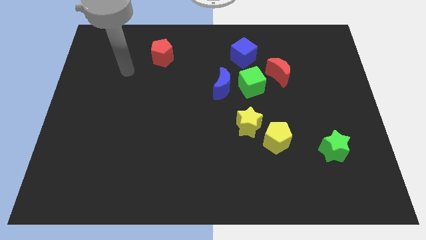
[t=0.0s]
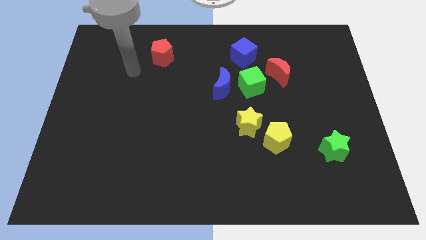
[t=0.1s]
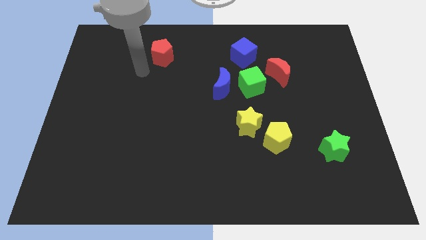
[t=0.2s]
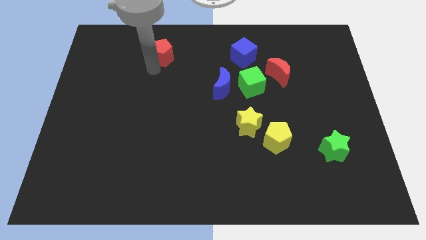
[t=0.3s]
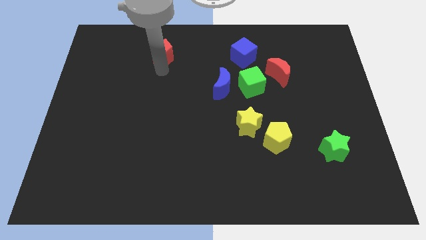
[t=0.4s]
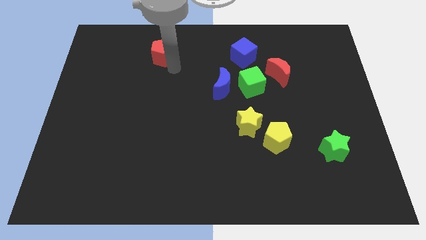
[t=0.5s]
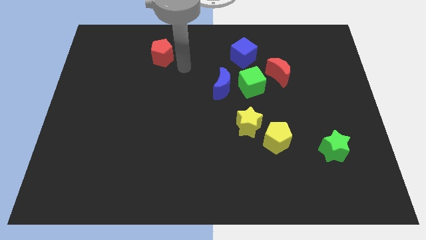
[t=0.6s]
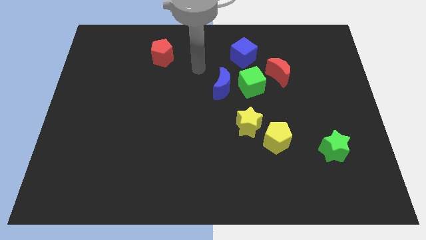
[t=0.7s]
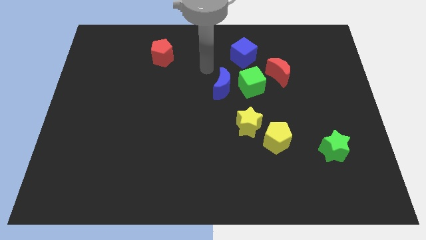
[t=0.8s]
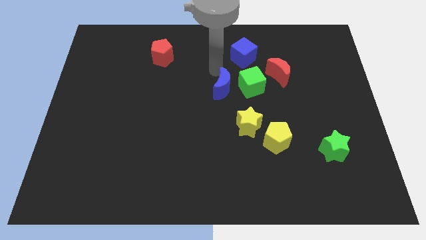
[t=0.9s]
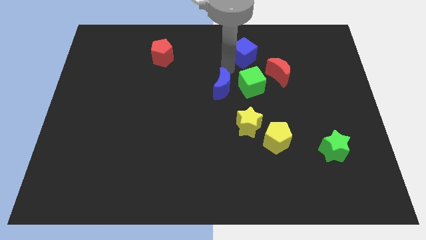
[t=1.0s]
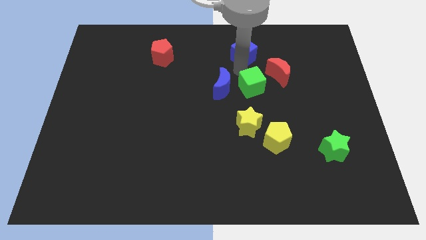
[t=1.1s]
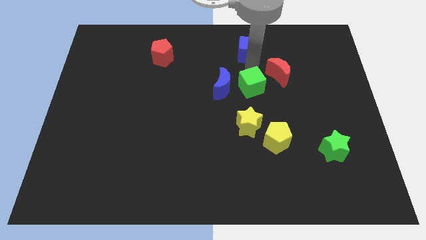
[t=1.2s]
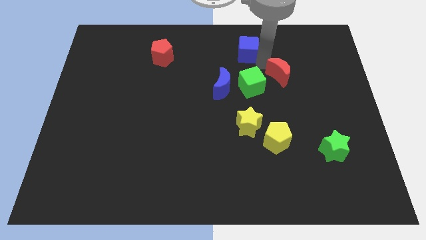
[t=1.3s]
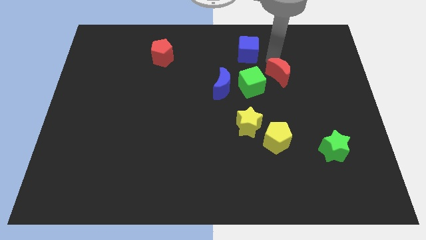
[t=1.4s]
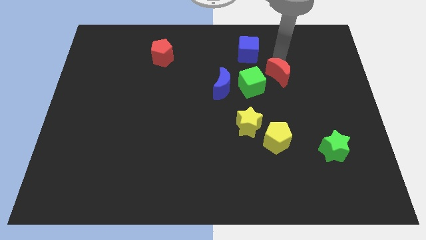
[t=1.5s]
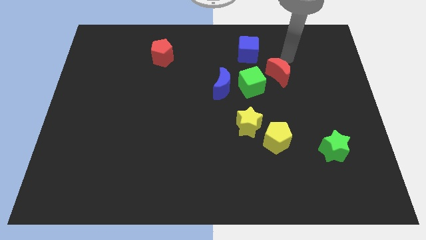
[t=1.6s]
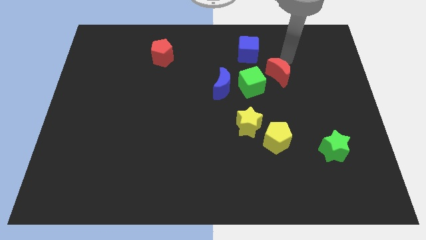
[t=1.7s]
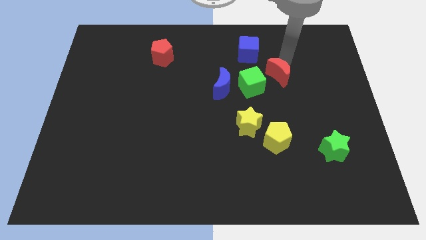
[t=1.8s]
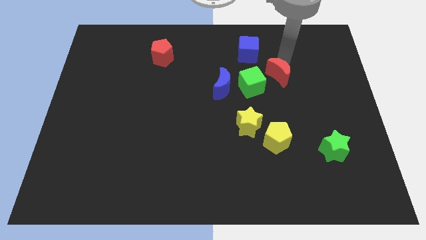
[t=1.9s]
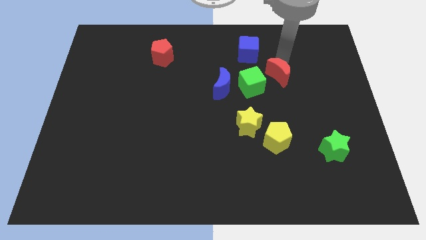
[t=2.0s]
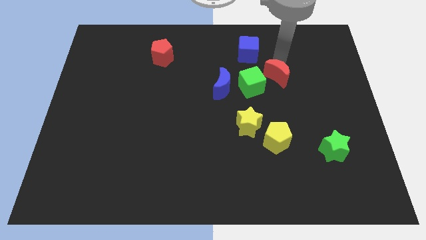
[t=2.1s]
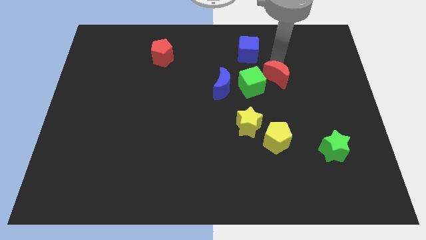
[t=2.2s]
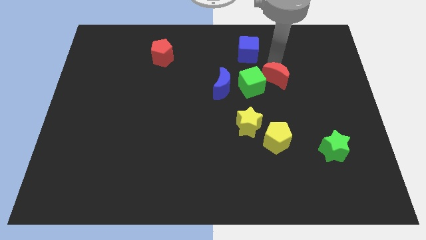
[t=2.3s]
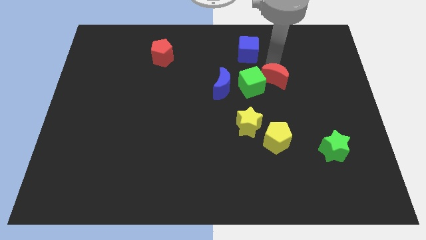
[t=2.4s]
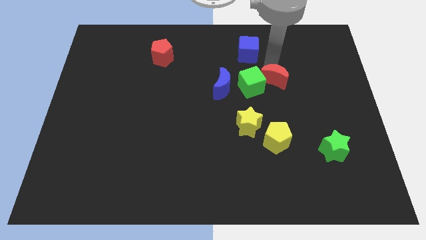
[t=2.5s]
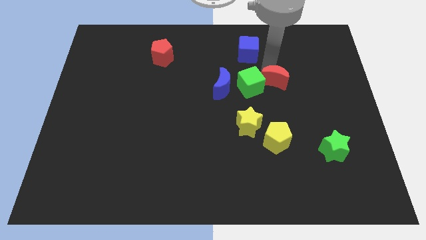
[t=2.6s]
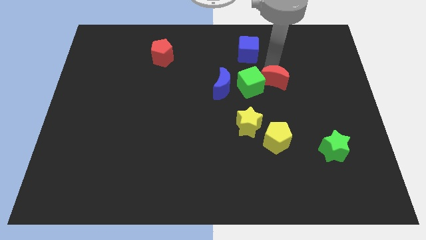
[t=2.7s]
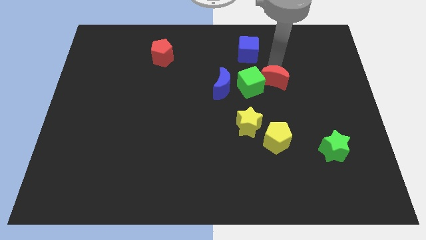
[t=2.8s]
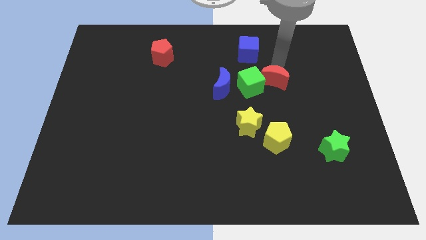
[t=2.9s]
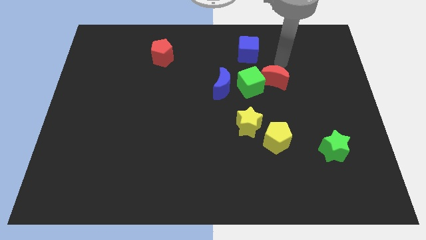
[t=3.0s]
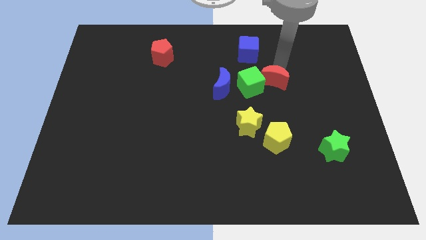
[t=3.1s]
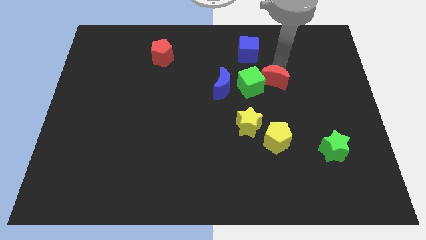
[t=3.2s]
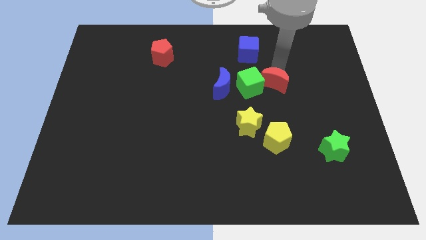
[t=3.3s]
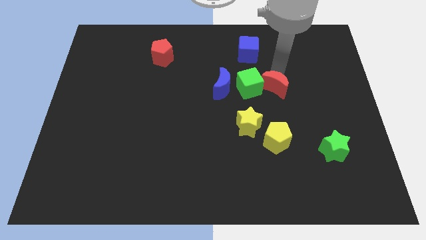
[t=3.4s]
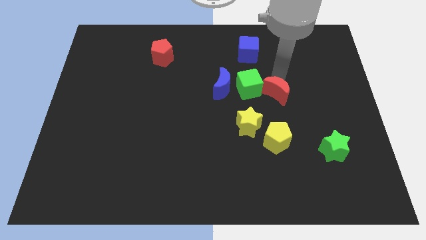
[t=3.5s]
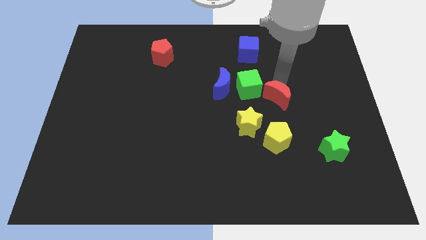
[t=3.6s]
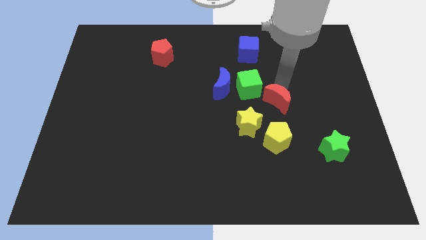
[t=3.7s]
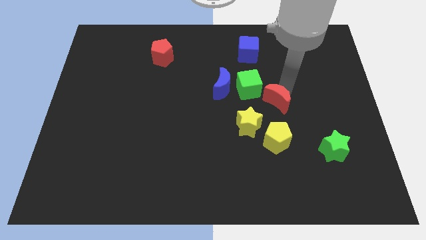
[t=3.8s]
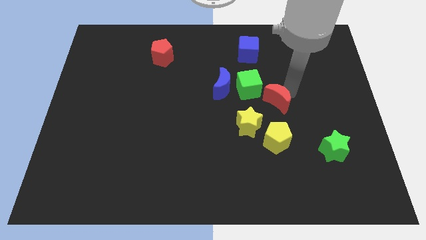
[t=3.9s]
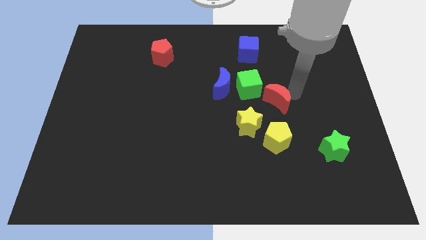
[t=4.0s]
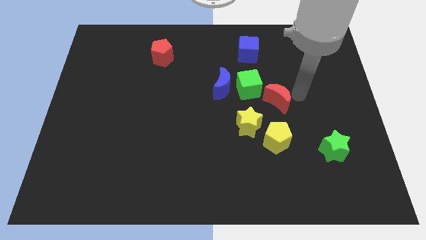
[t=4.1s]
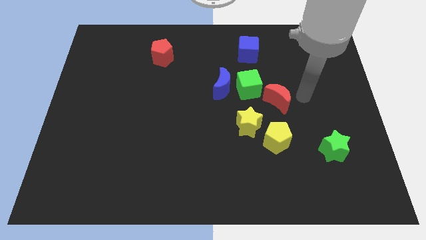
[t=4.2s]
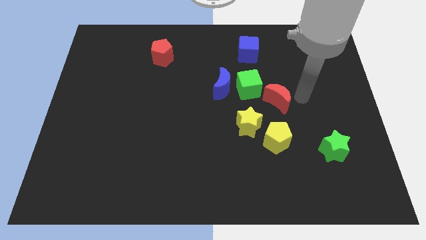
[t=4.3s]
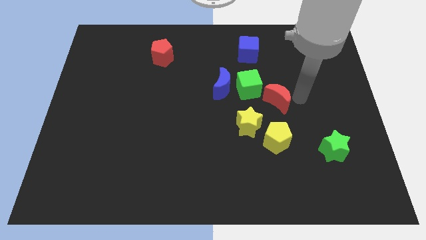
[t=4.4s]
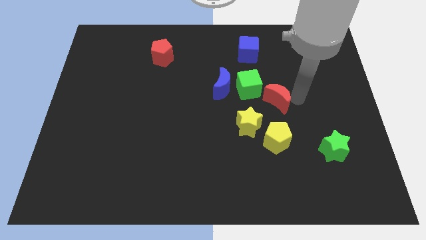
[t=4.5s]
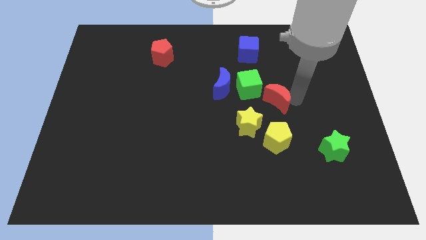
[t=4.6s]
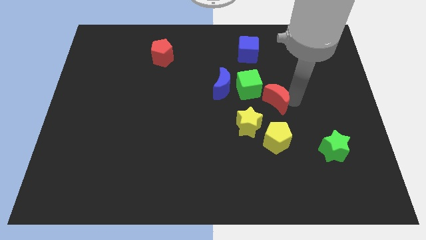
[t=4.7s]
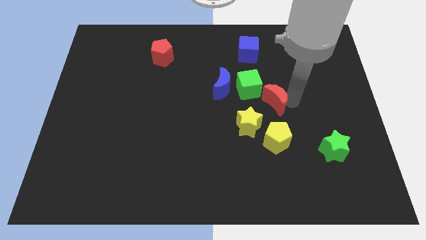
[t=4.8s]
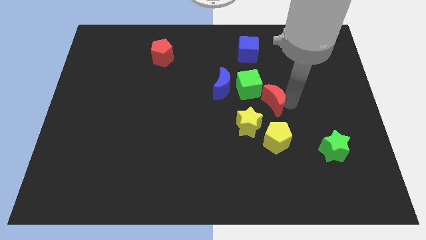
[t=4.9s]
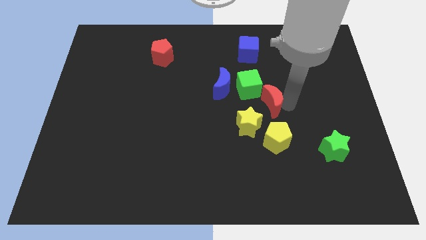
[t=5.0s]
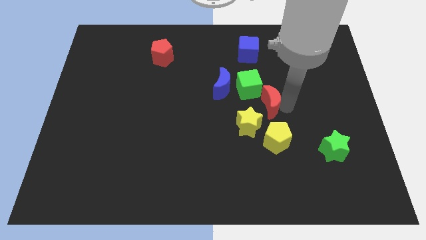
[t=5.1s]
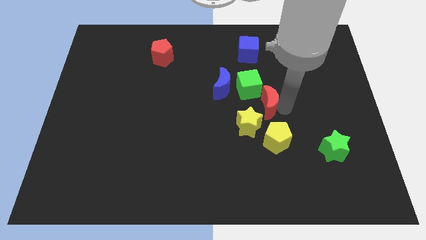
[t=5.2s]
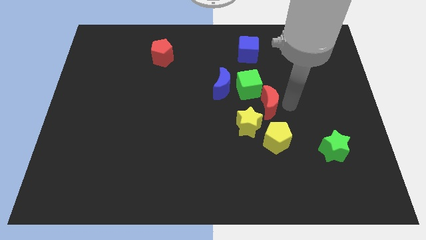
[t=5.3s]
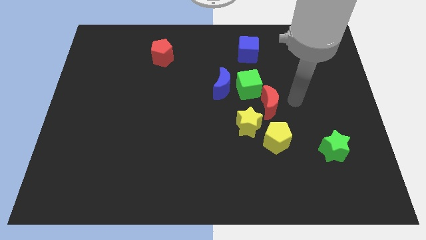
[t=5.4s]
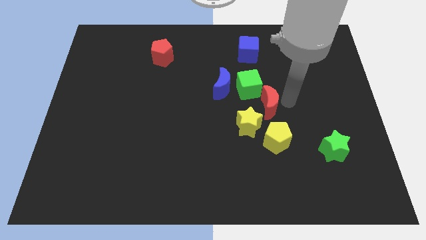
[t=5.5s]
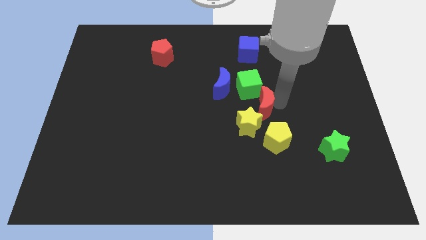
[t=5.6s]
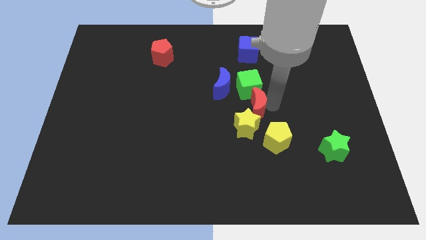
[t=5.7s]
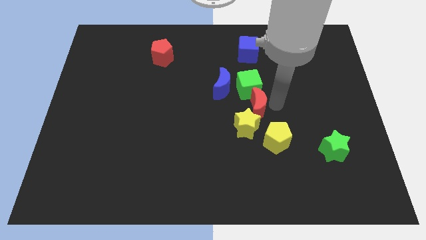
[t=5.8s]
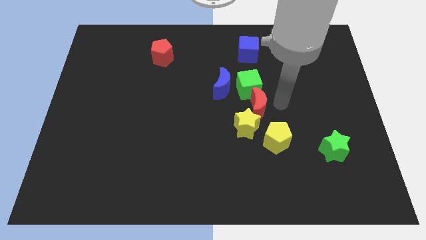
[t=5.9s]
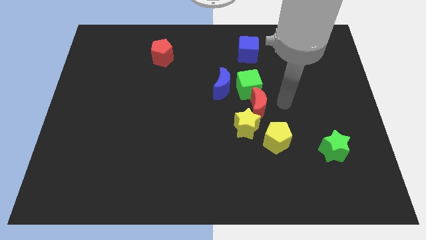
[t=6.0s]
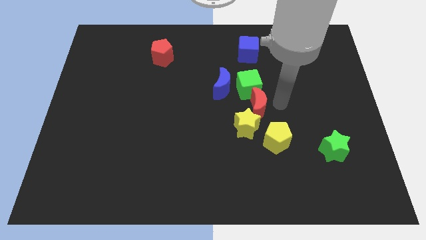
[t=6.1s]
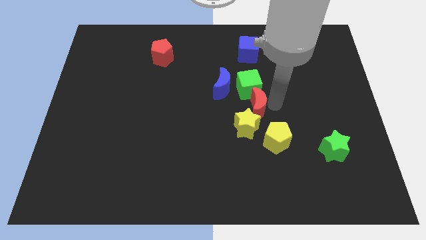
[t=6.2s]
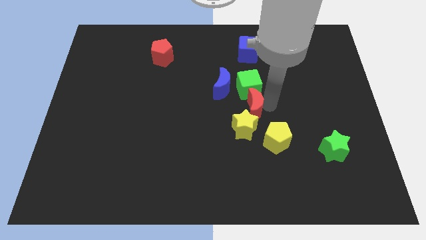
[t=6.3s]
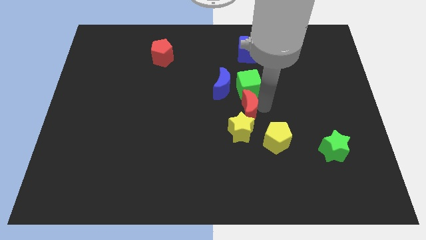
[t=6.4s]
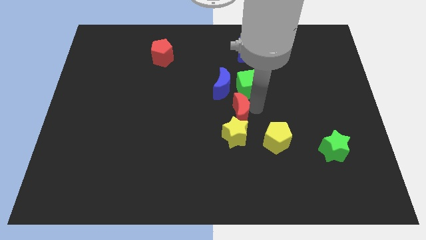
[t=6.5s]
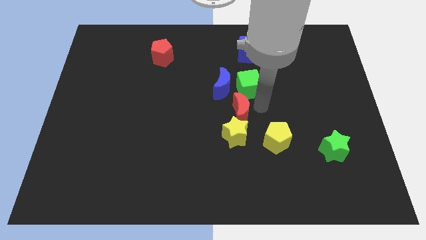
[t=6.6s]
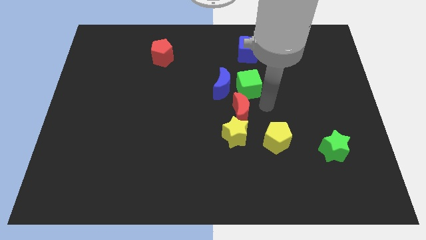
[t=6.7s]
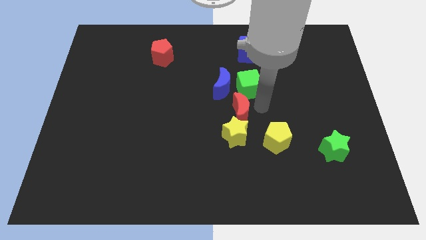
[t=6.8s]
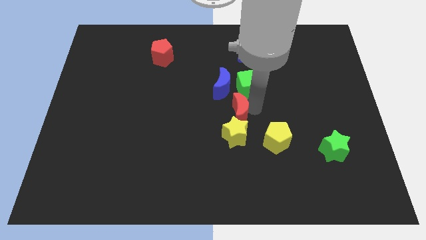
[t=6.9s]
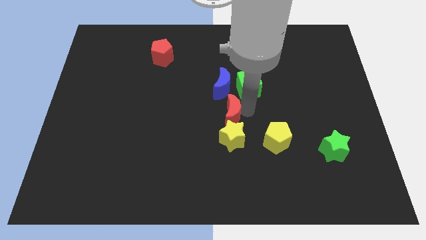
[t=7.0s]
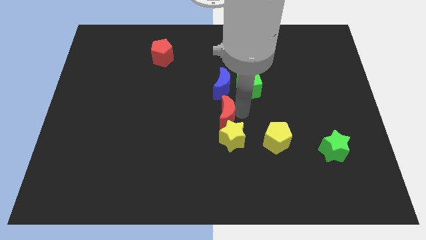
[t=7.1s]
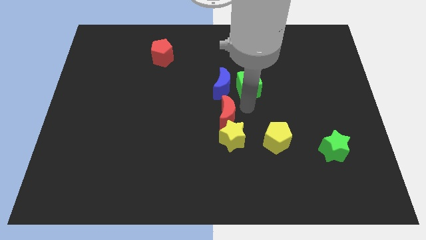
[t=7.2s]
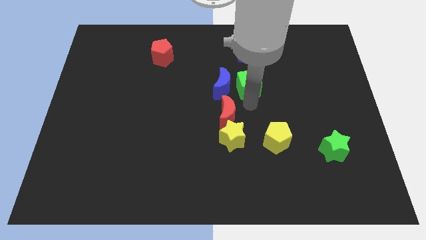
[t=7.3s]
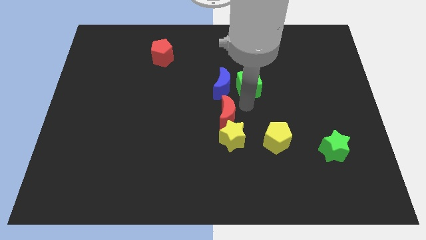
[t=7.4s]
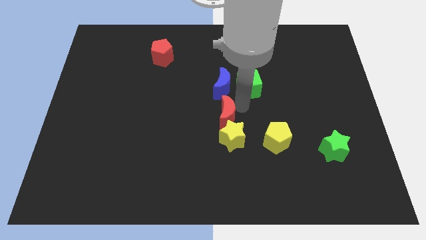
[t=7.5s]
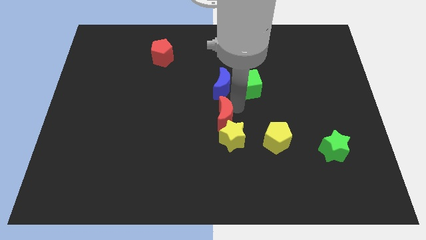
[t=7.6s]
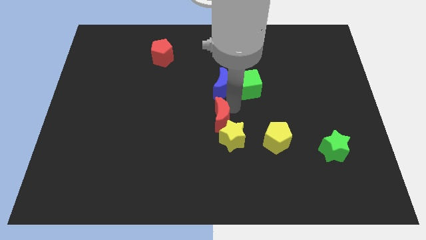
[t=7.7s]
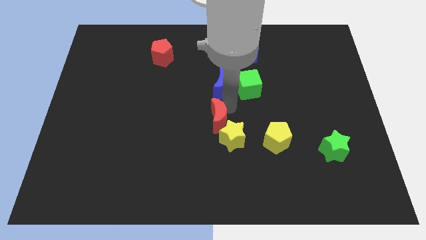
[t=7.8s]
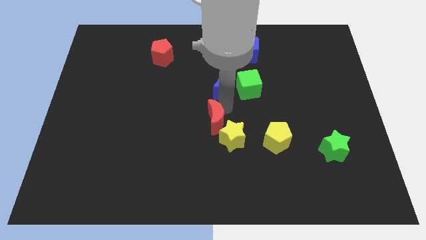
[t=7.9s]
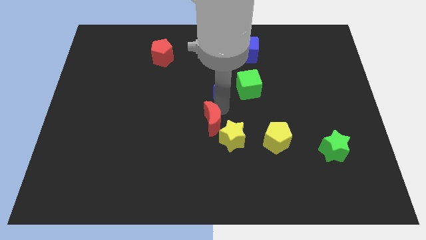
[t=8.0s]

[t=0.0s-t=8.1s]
push the red moon to the left side of the yellow star
